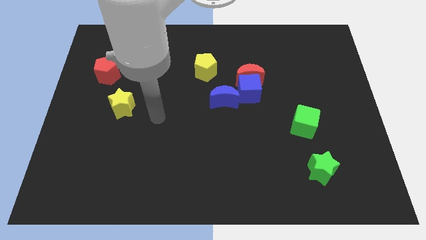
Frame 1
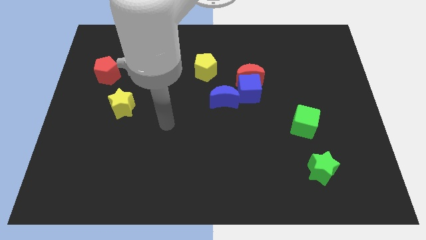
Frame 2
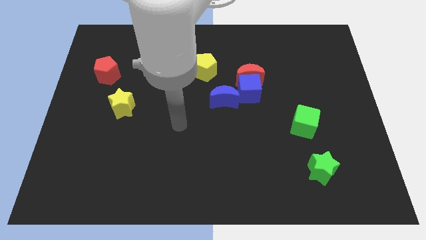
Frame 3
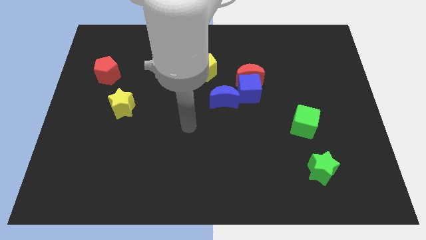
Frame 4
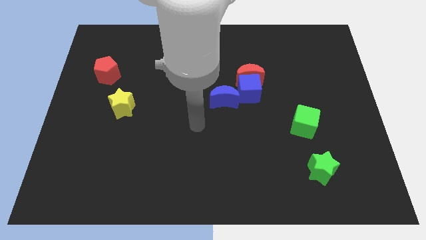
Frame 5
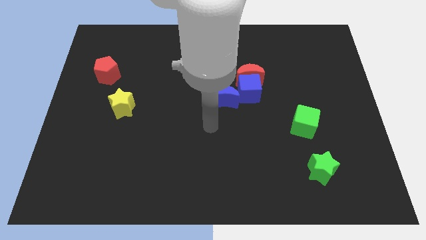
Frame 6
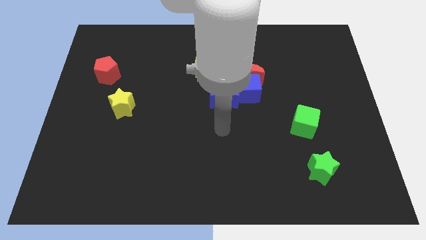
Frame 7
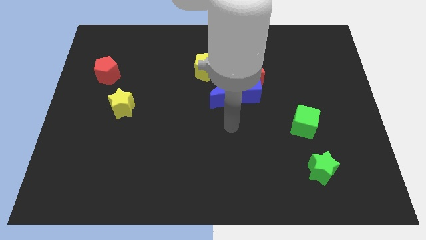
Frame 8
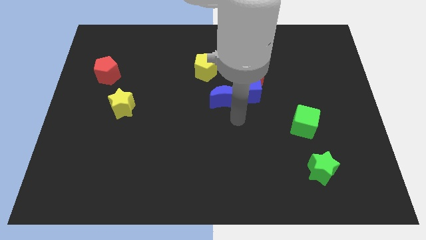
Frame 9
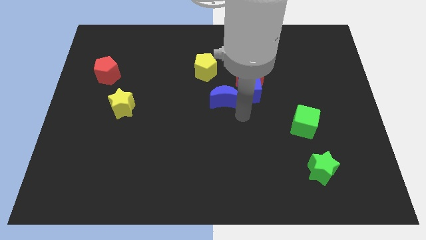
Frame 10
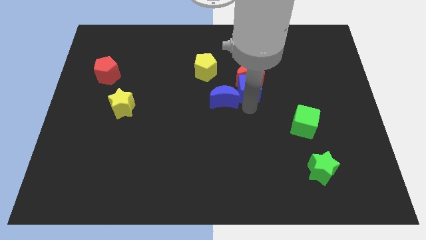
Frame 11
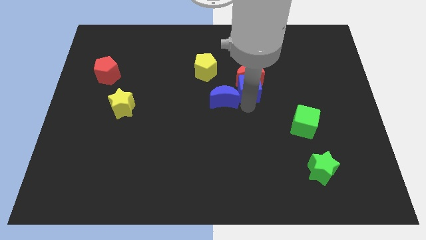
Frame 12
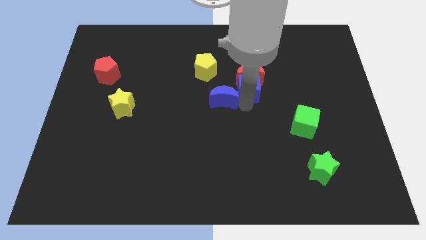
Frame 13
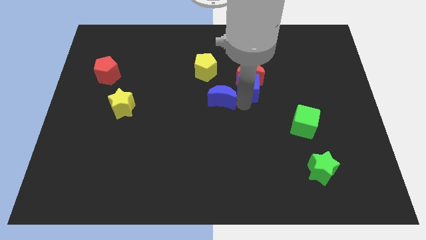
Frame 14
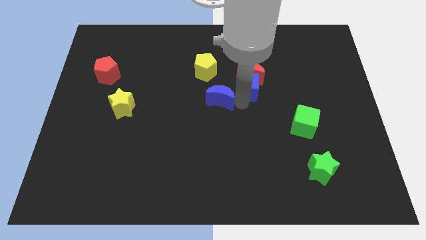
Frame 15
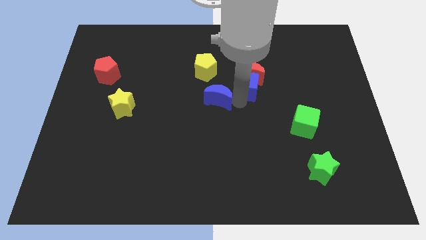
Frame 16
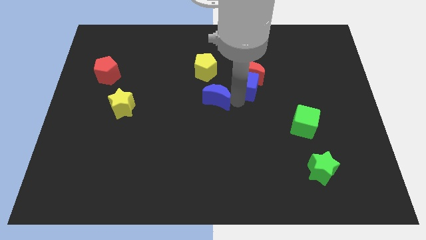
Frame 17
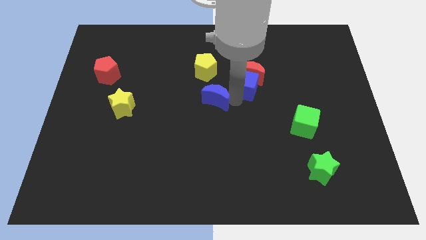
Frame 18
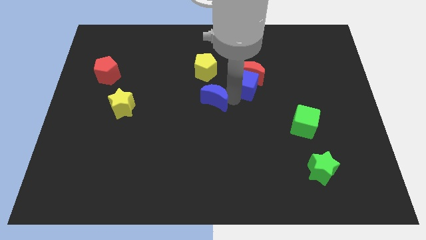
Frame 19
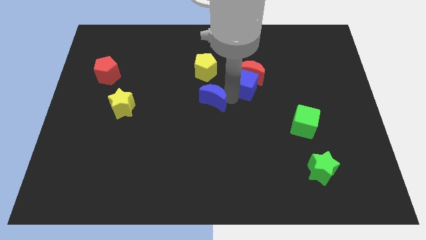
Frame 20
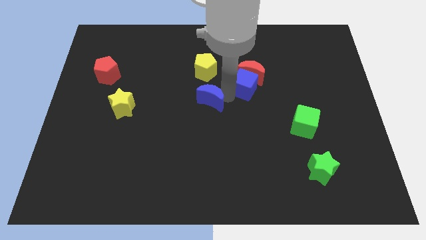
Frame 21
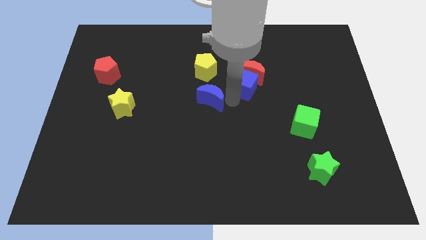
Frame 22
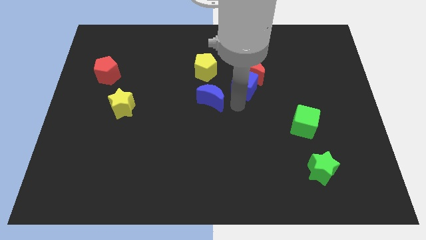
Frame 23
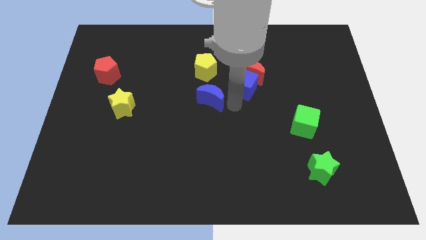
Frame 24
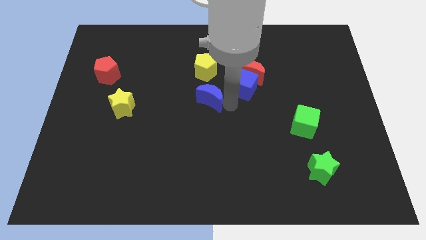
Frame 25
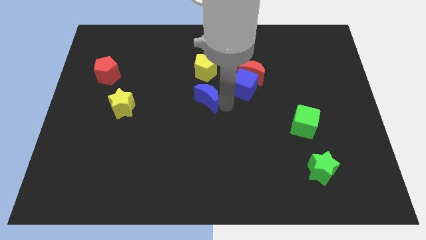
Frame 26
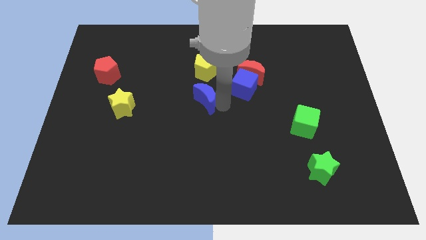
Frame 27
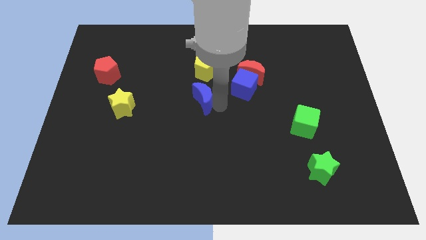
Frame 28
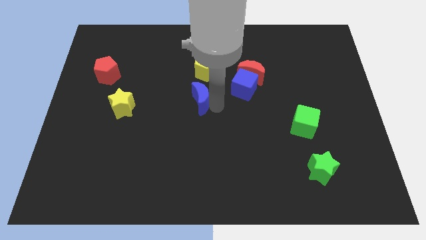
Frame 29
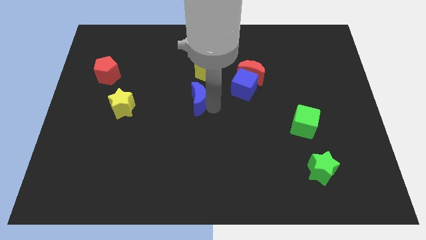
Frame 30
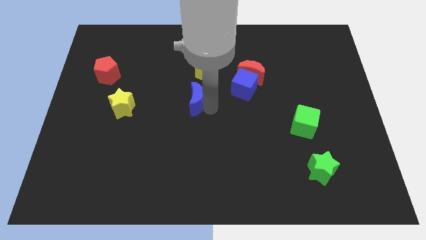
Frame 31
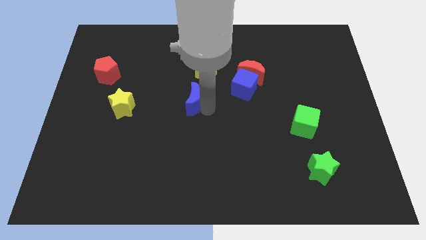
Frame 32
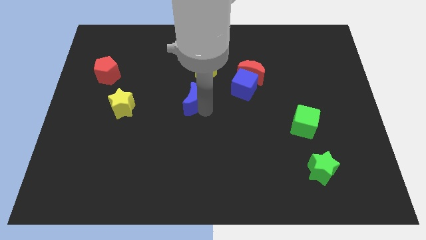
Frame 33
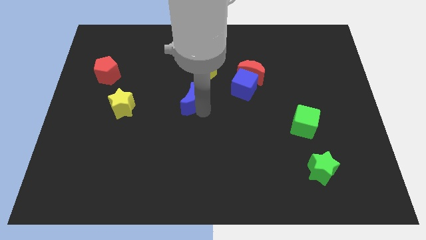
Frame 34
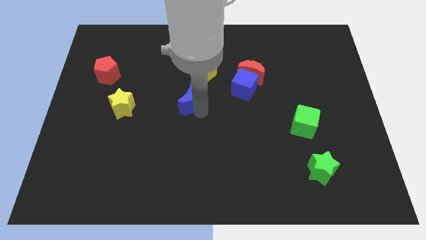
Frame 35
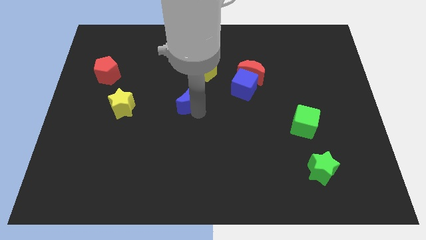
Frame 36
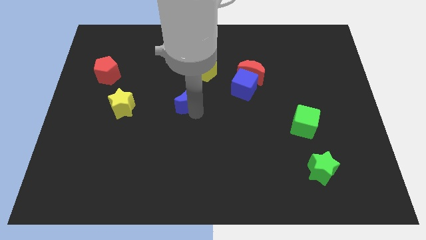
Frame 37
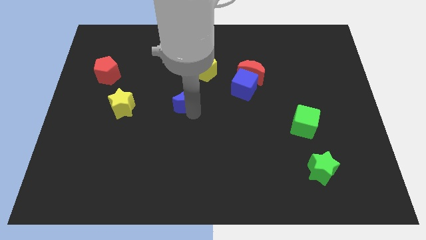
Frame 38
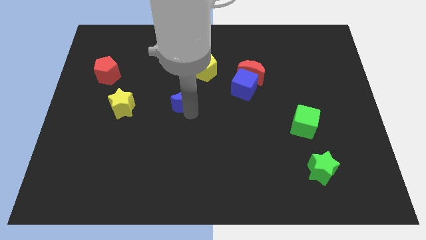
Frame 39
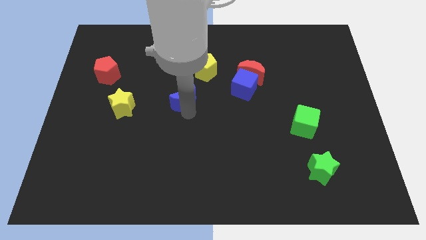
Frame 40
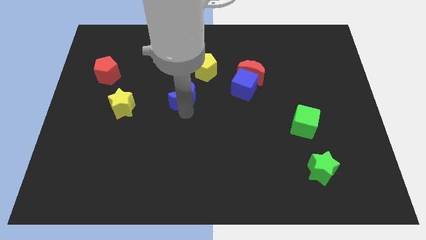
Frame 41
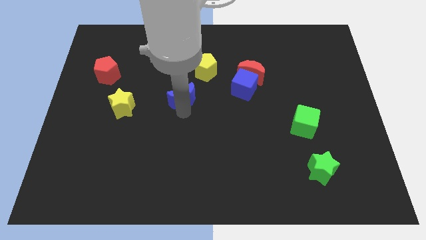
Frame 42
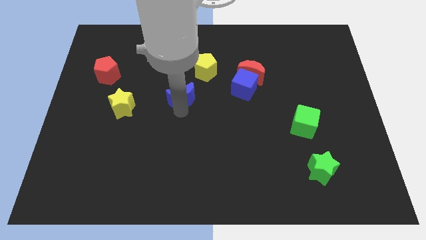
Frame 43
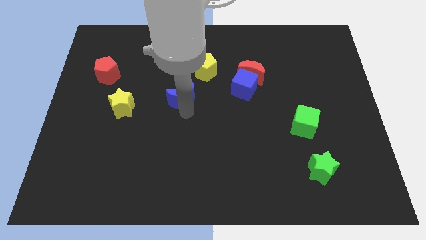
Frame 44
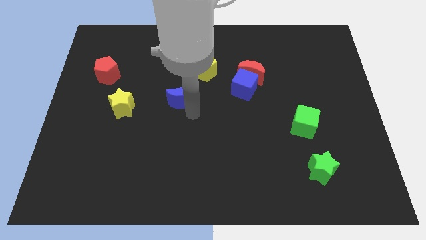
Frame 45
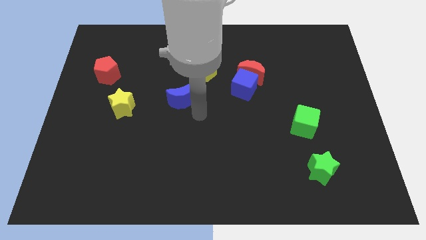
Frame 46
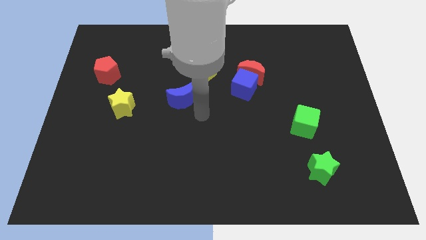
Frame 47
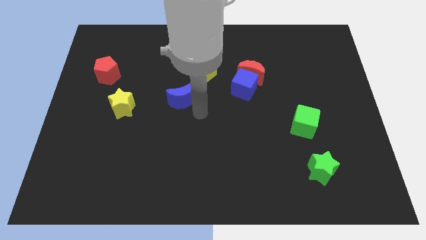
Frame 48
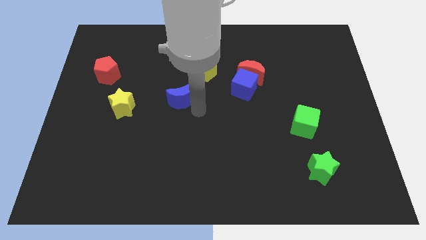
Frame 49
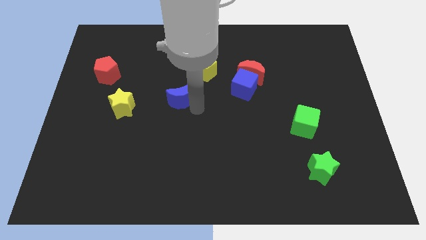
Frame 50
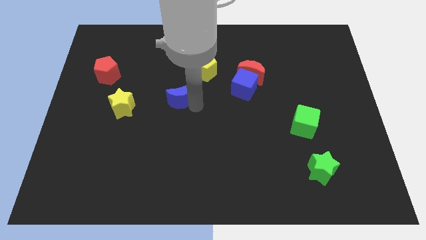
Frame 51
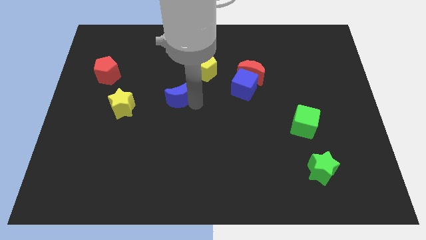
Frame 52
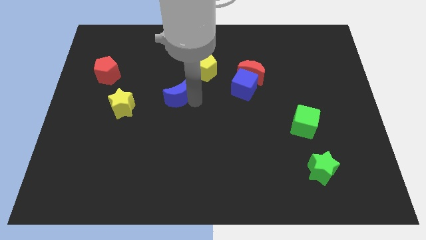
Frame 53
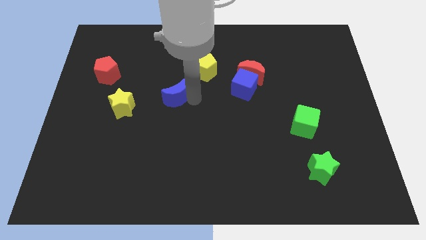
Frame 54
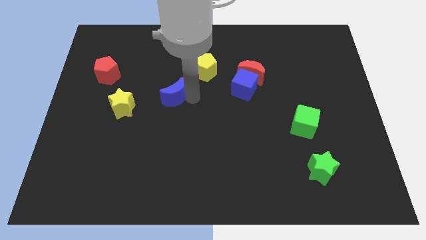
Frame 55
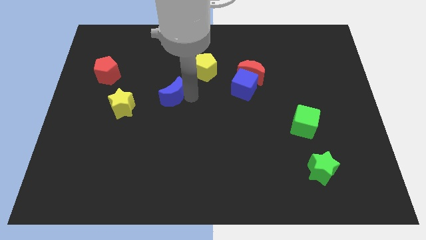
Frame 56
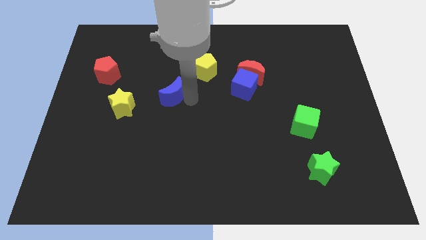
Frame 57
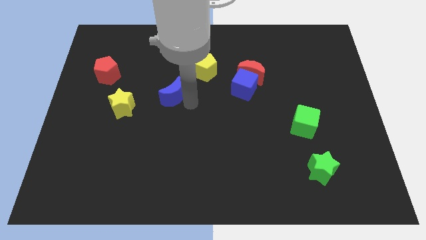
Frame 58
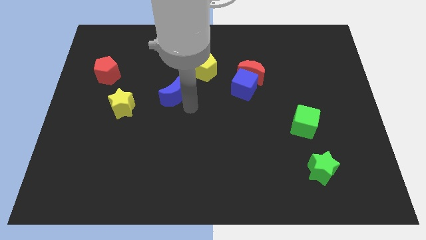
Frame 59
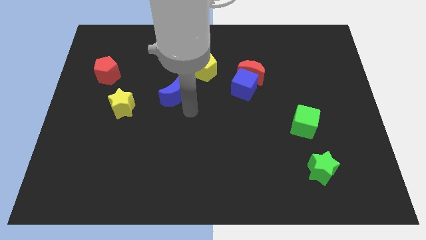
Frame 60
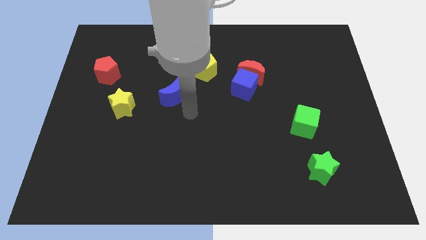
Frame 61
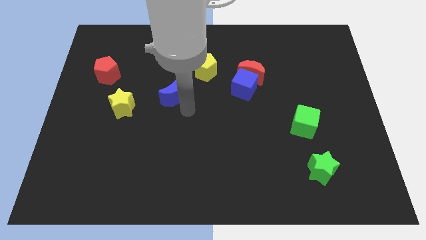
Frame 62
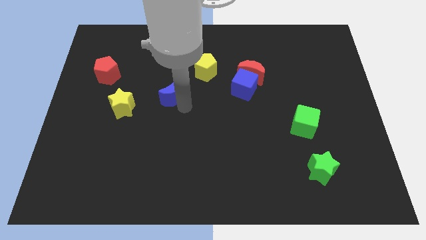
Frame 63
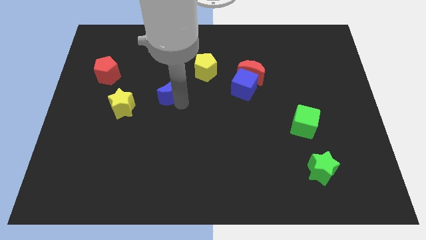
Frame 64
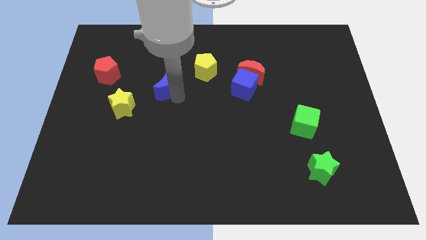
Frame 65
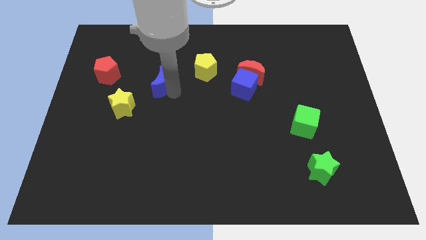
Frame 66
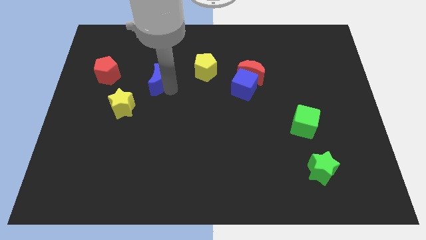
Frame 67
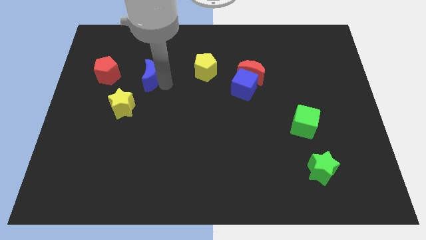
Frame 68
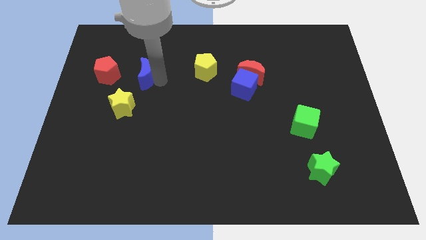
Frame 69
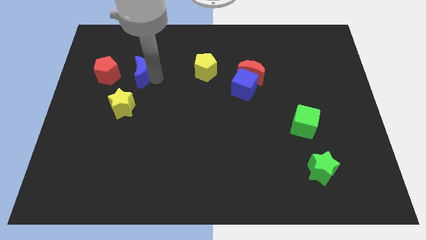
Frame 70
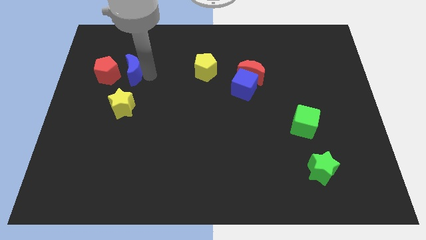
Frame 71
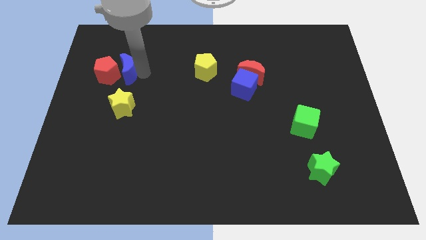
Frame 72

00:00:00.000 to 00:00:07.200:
put the blue moon to the red pentagon
